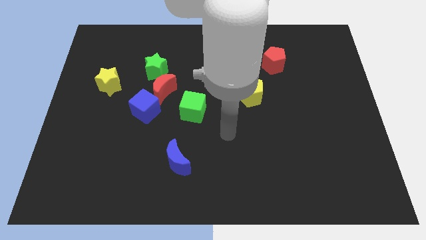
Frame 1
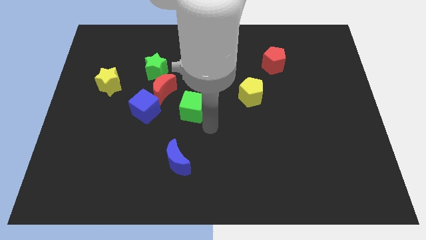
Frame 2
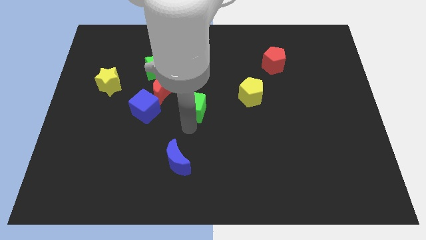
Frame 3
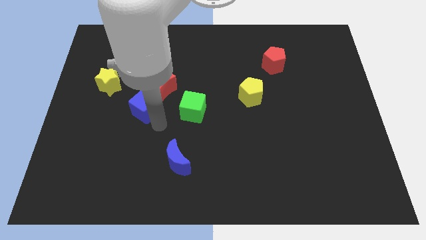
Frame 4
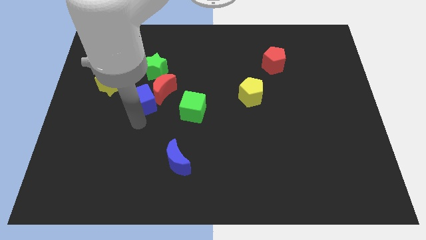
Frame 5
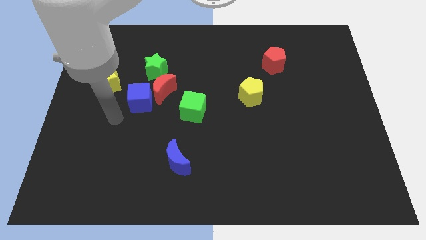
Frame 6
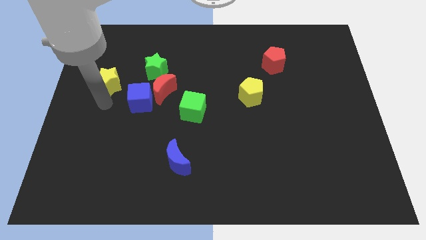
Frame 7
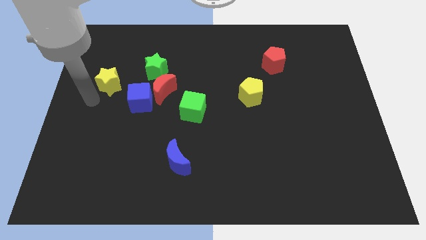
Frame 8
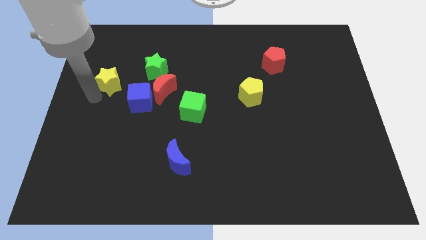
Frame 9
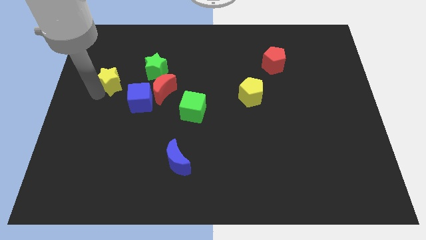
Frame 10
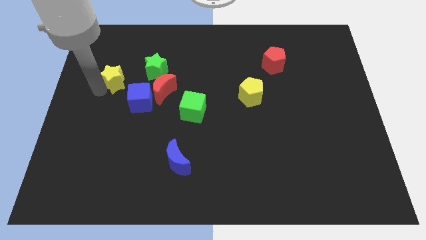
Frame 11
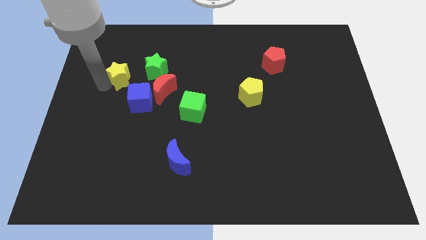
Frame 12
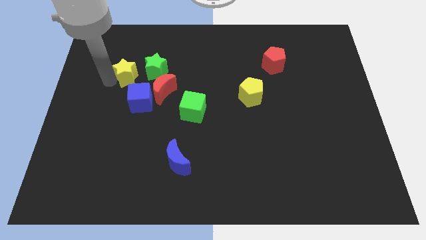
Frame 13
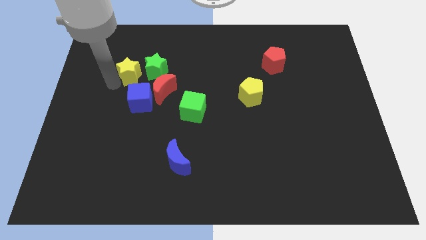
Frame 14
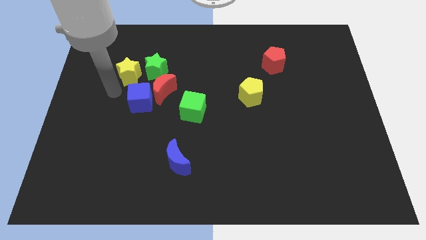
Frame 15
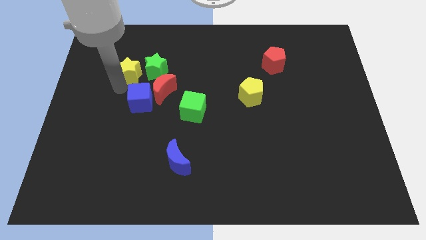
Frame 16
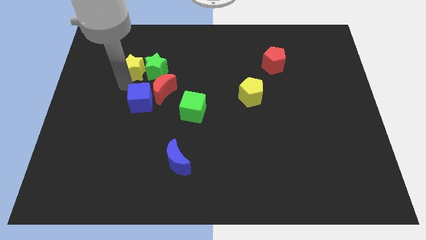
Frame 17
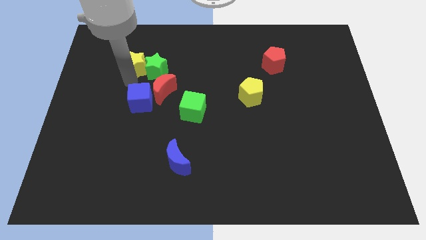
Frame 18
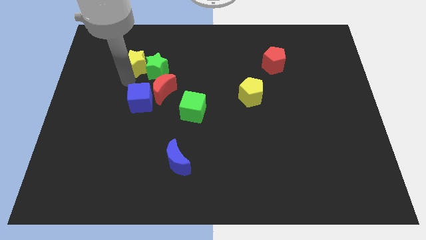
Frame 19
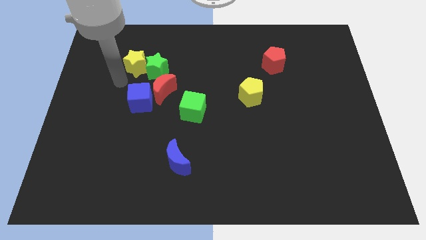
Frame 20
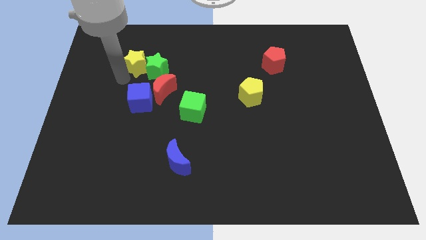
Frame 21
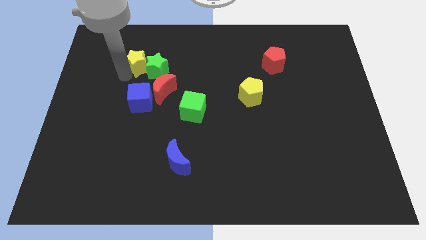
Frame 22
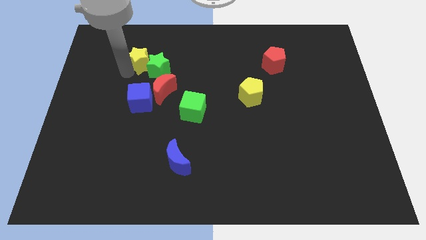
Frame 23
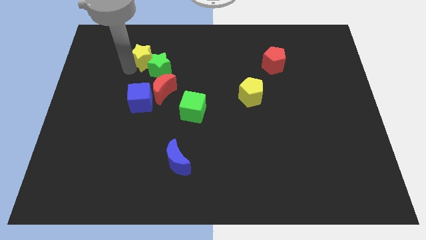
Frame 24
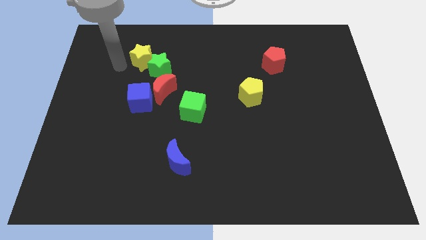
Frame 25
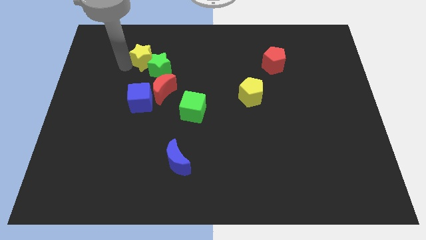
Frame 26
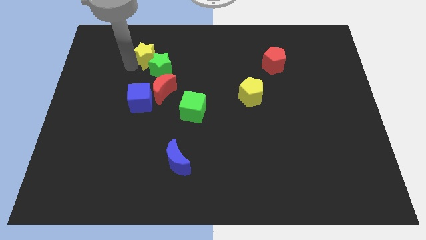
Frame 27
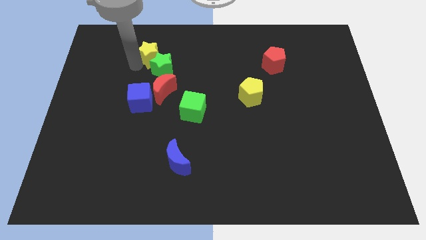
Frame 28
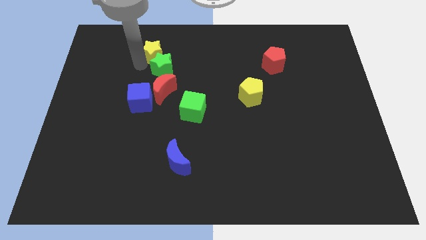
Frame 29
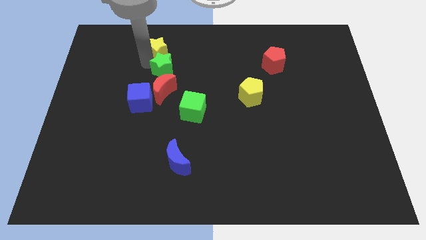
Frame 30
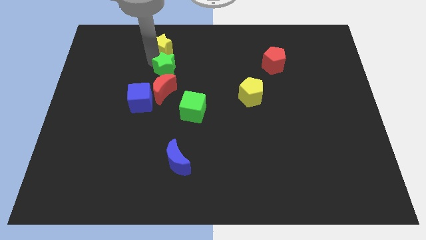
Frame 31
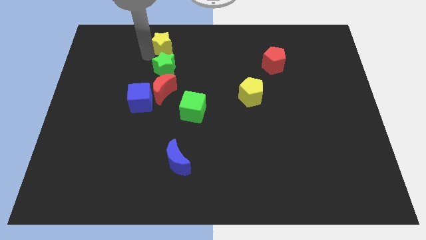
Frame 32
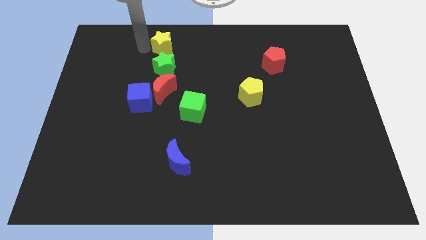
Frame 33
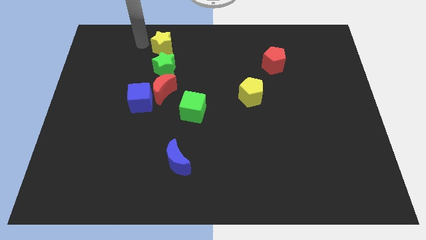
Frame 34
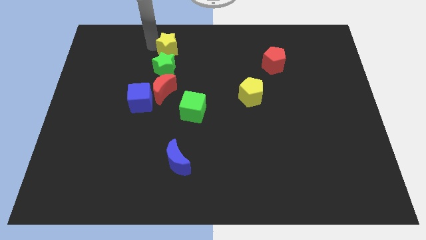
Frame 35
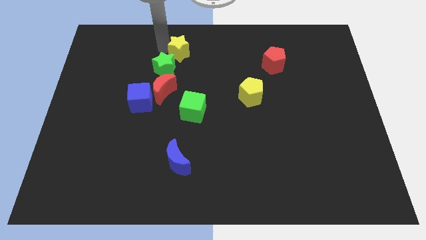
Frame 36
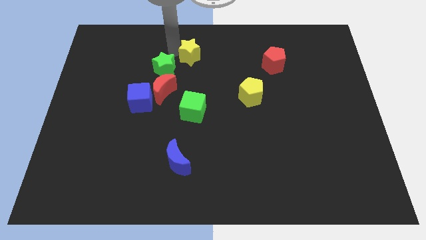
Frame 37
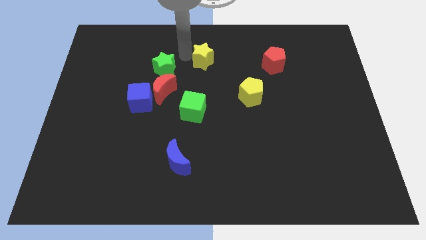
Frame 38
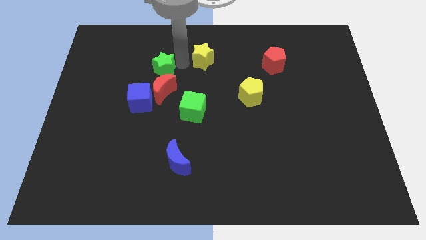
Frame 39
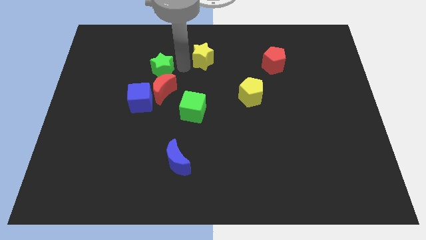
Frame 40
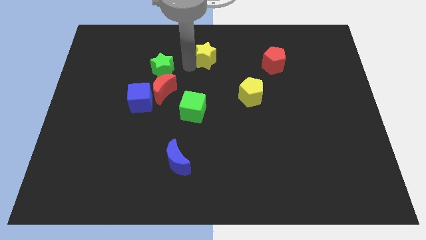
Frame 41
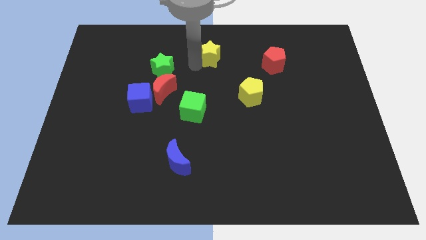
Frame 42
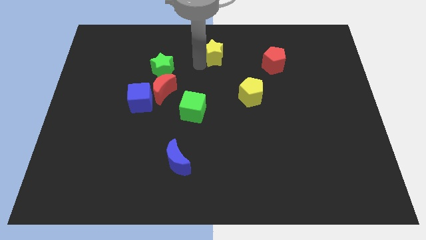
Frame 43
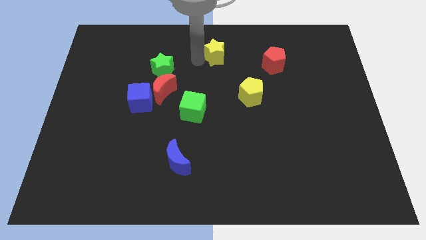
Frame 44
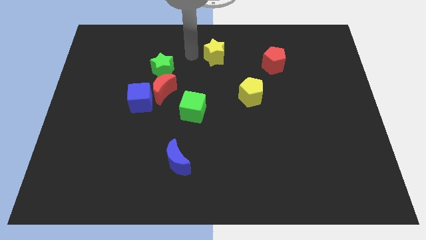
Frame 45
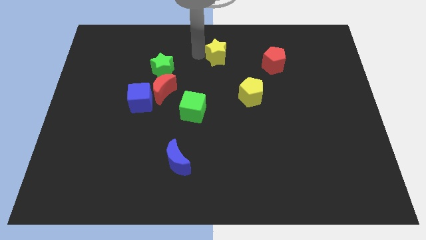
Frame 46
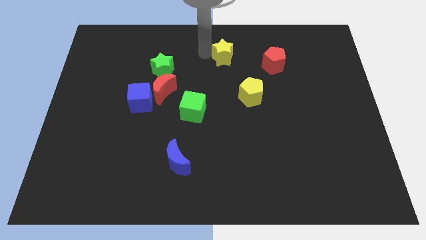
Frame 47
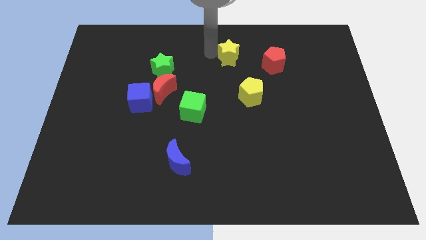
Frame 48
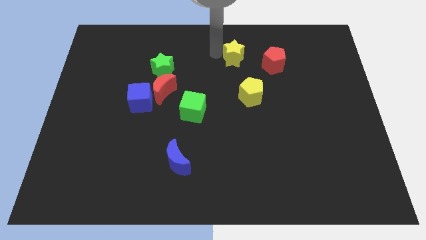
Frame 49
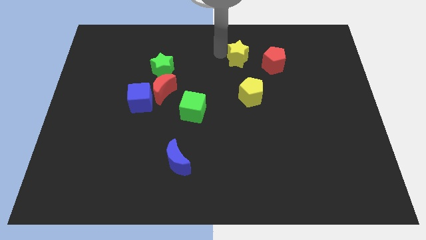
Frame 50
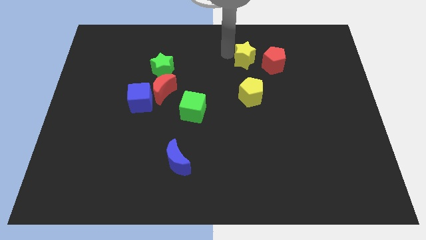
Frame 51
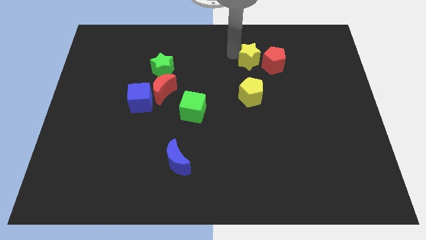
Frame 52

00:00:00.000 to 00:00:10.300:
push the yellow star next to the red pentagon

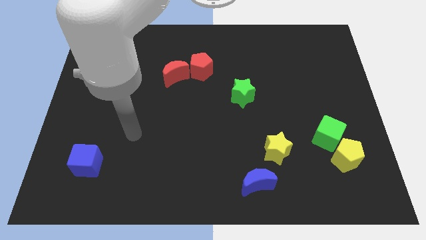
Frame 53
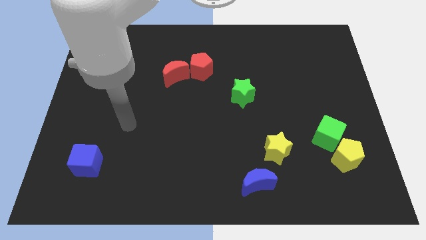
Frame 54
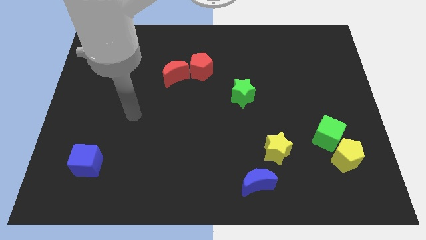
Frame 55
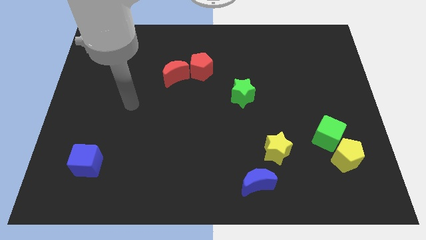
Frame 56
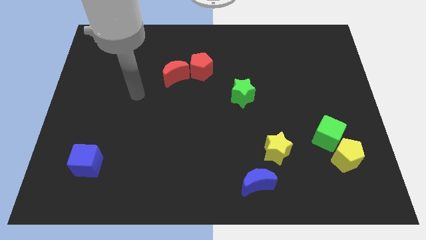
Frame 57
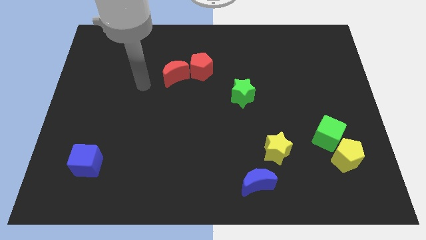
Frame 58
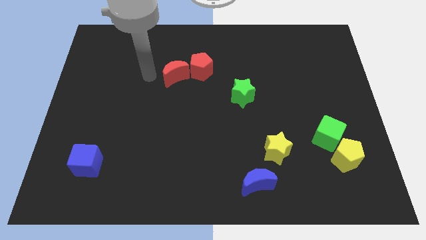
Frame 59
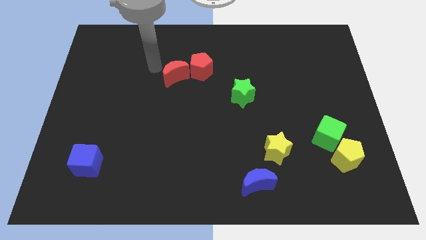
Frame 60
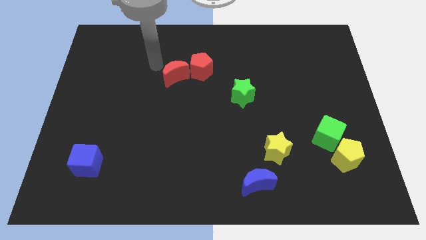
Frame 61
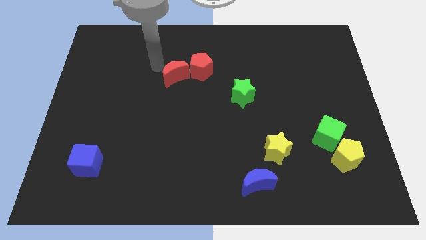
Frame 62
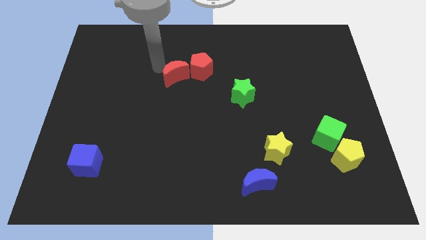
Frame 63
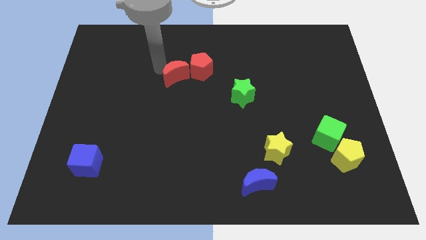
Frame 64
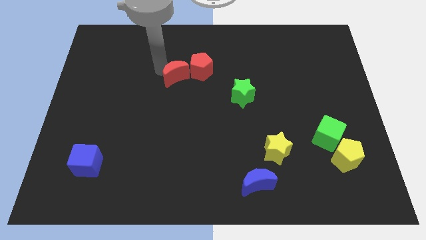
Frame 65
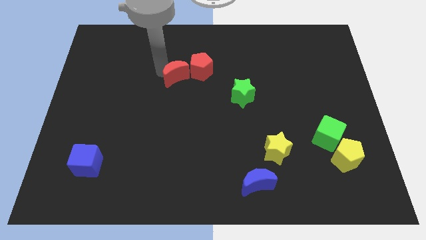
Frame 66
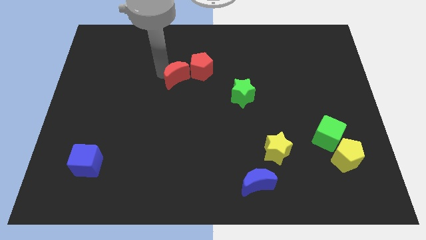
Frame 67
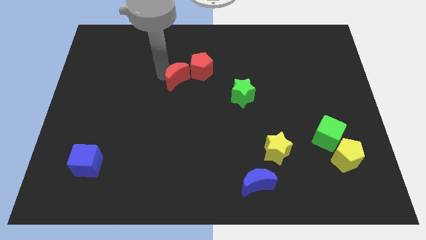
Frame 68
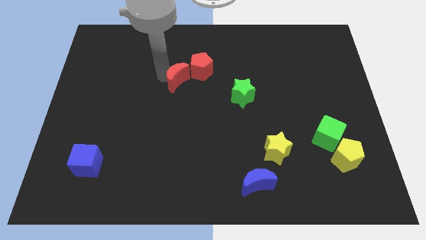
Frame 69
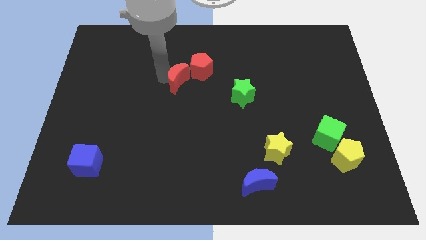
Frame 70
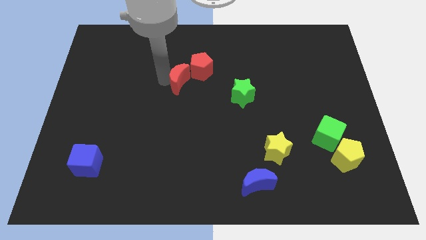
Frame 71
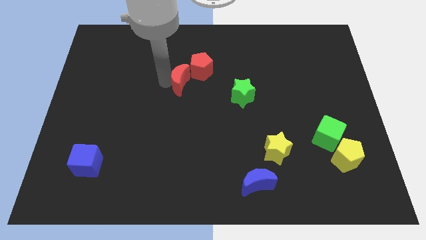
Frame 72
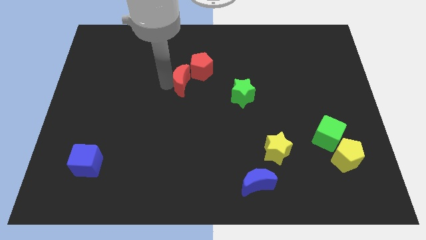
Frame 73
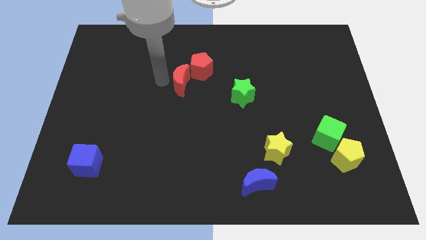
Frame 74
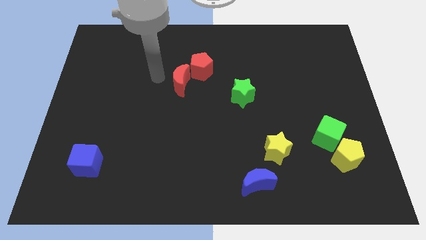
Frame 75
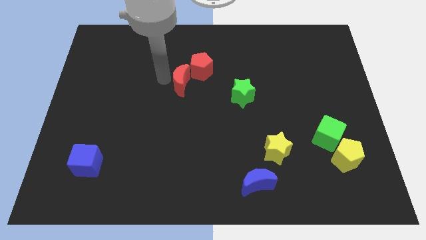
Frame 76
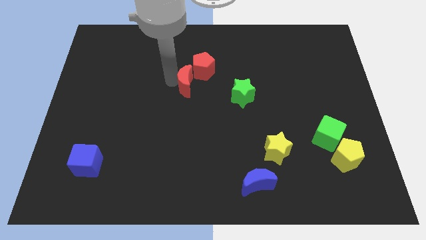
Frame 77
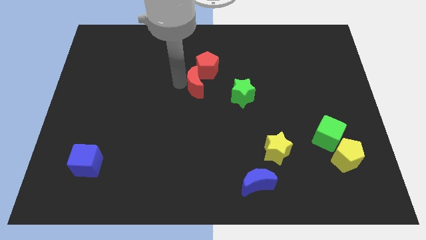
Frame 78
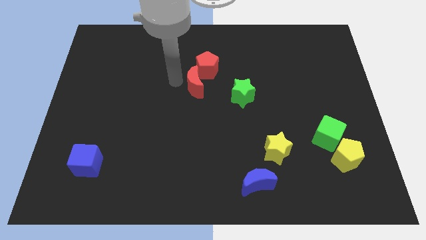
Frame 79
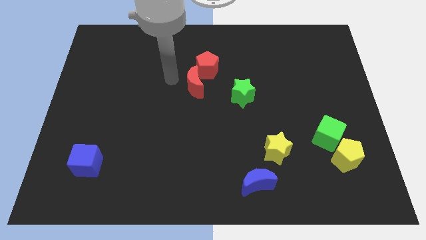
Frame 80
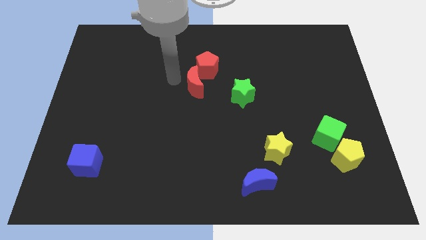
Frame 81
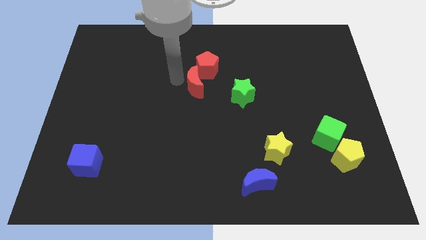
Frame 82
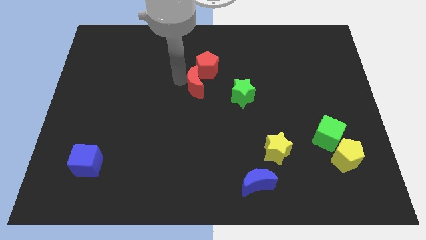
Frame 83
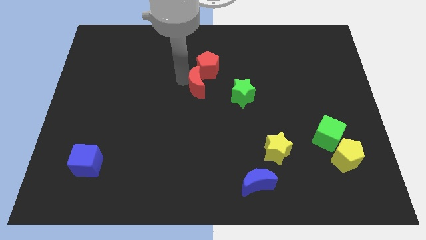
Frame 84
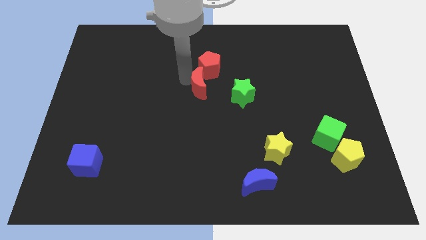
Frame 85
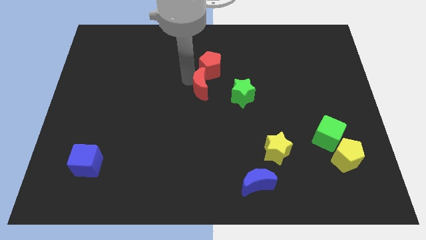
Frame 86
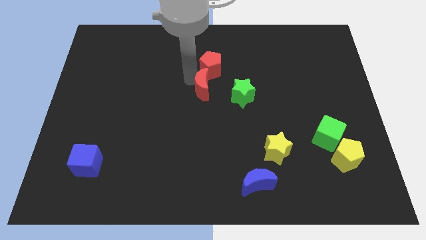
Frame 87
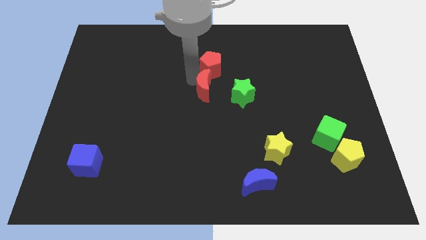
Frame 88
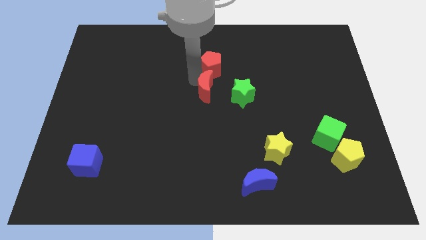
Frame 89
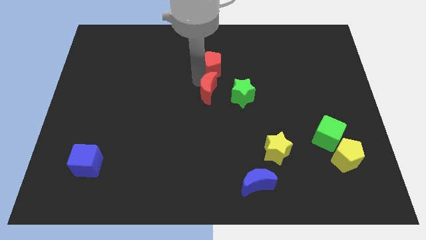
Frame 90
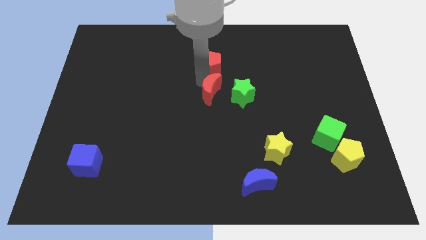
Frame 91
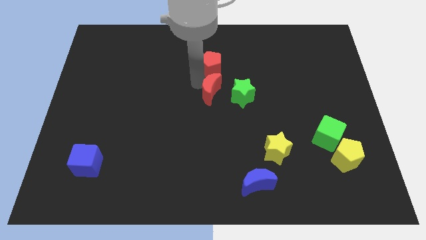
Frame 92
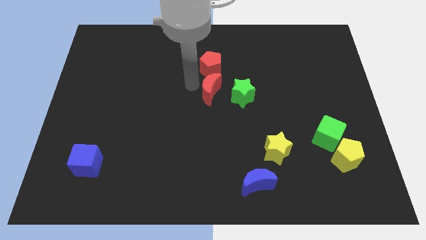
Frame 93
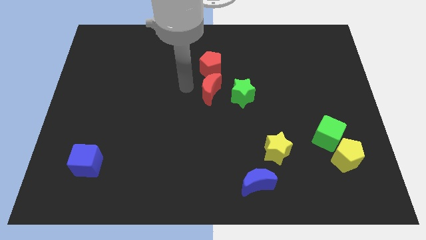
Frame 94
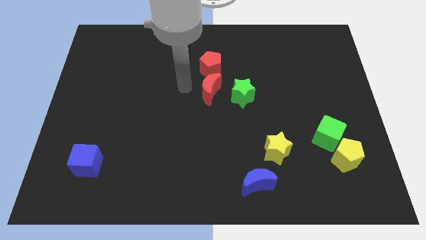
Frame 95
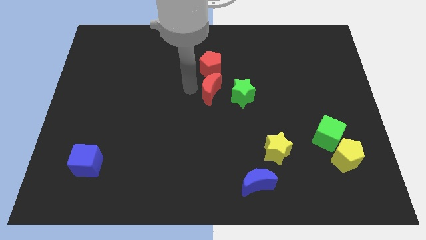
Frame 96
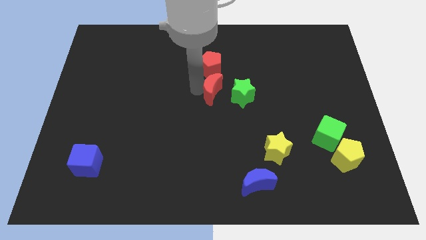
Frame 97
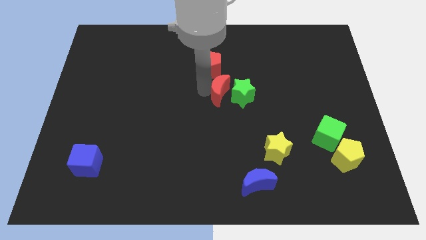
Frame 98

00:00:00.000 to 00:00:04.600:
put the red moon close to the green star
